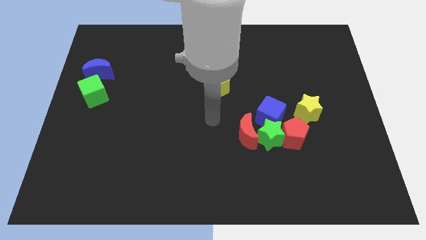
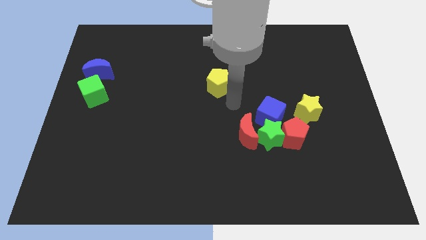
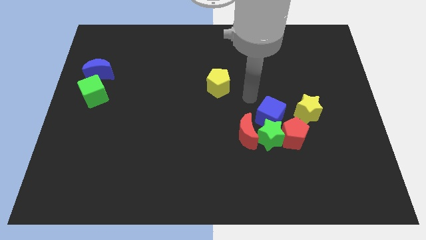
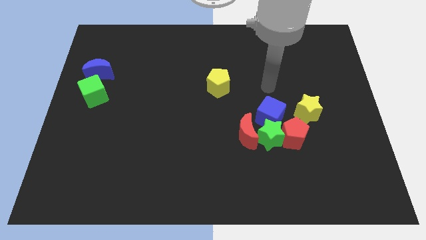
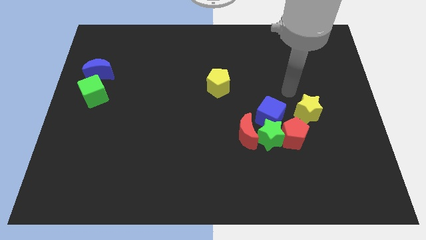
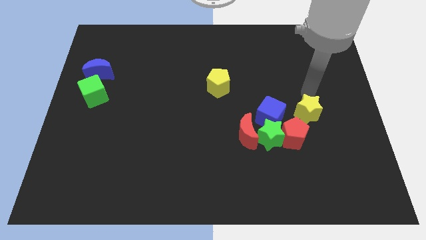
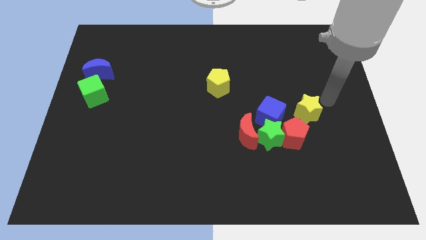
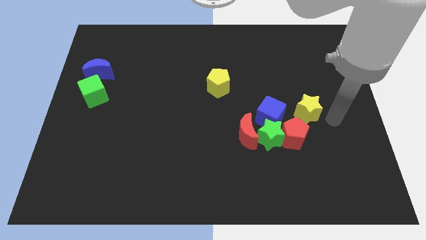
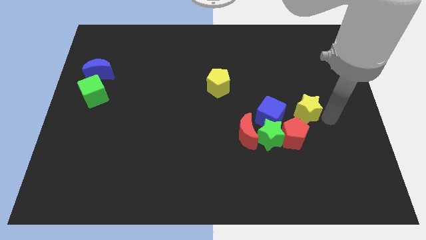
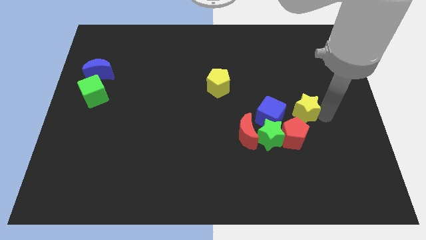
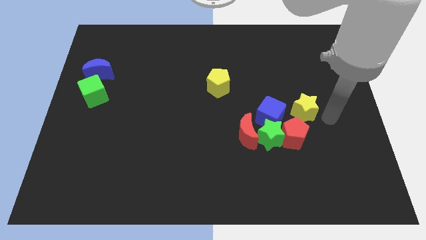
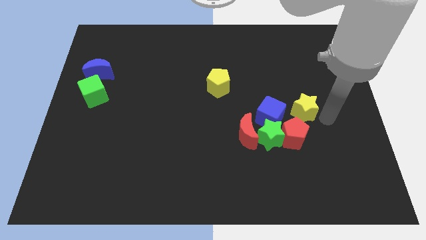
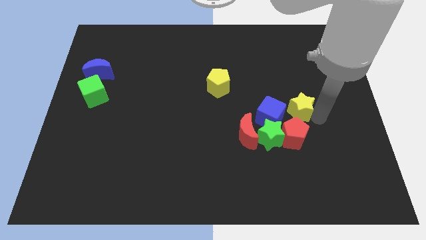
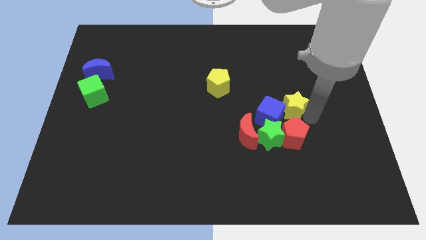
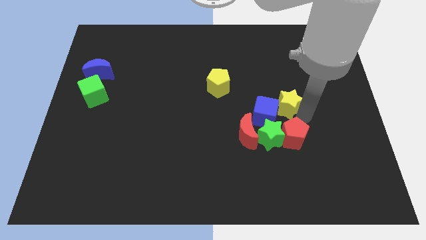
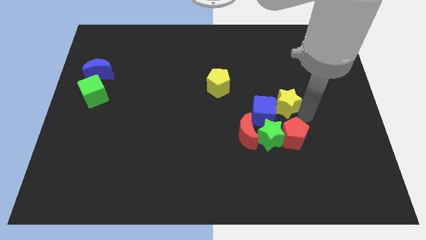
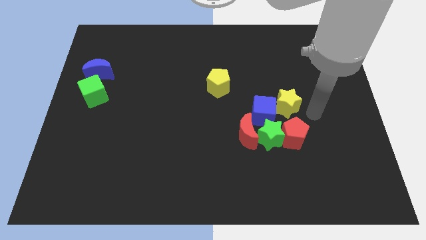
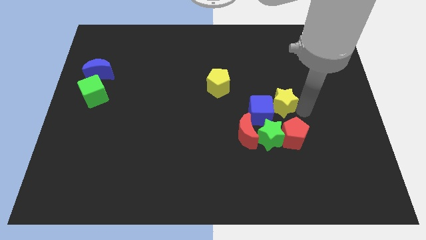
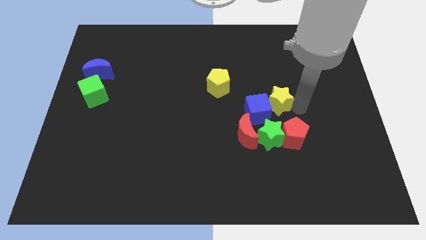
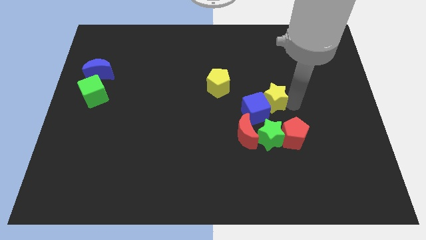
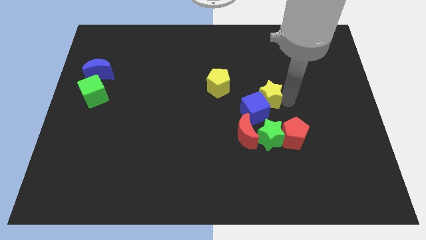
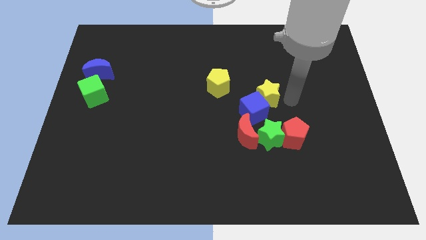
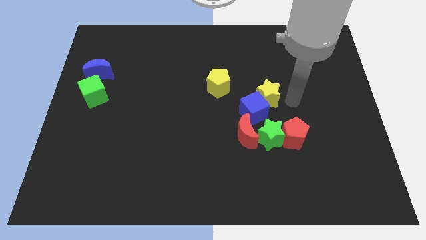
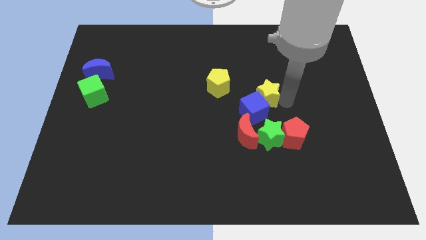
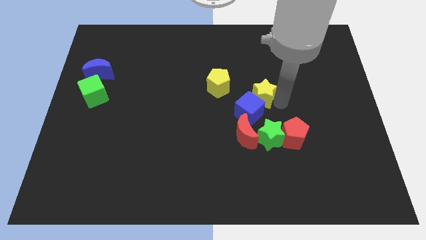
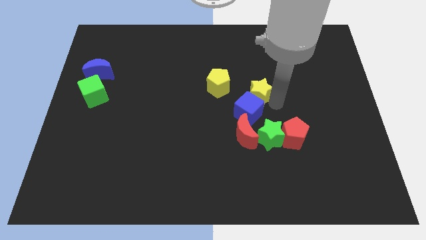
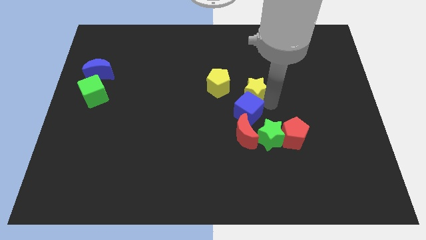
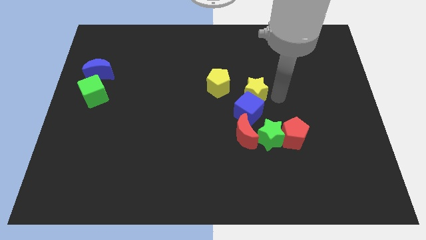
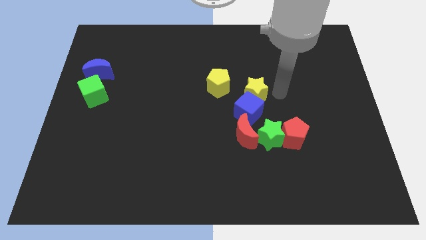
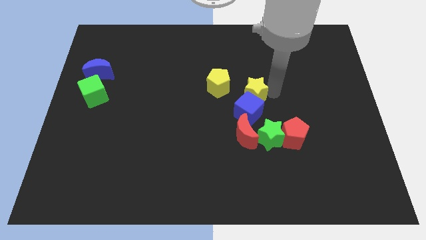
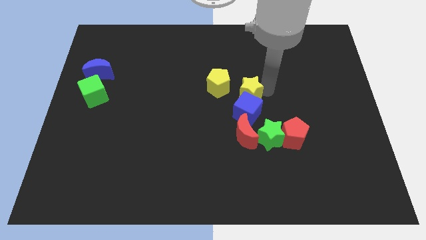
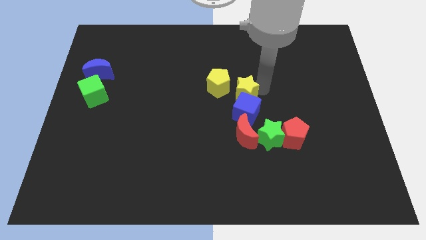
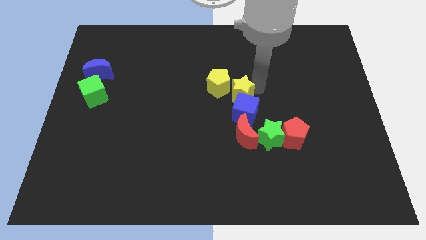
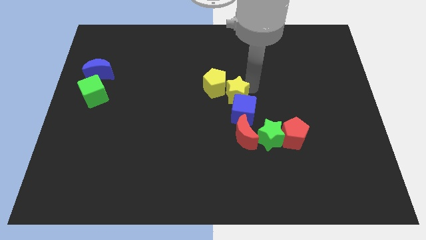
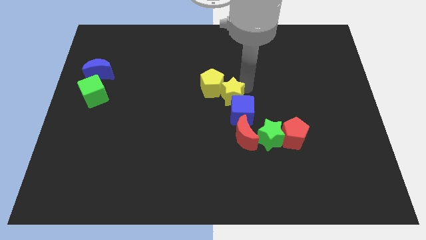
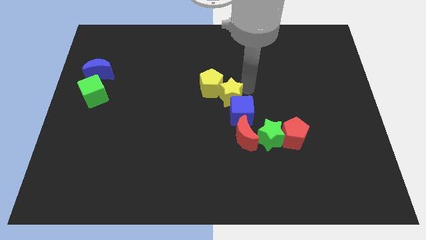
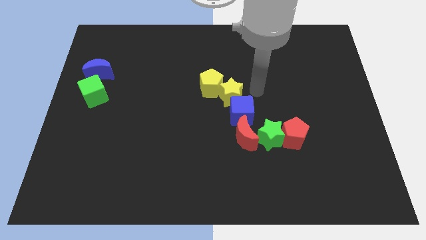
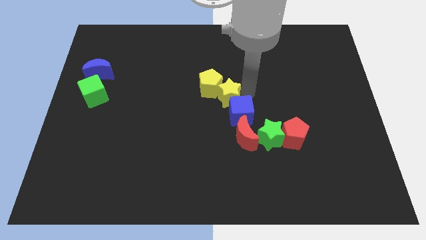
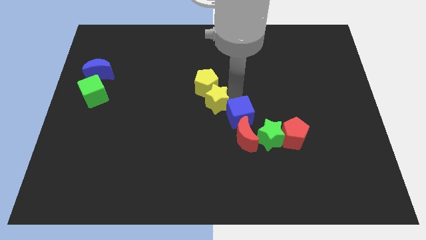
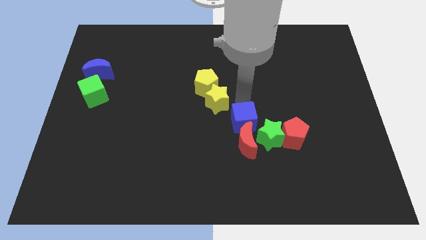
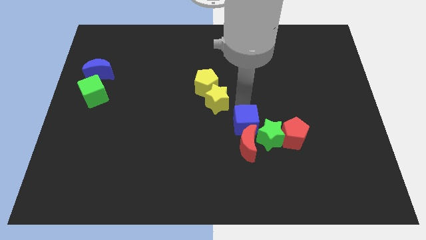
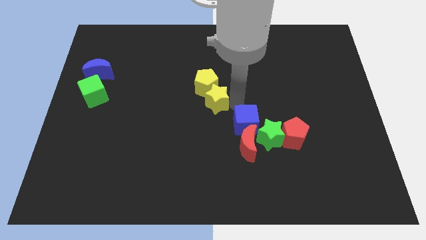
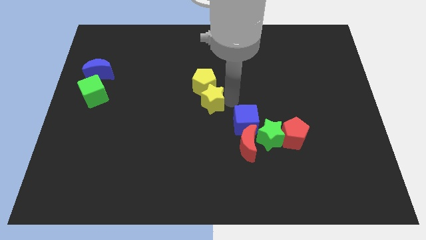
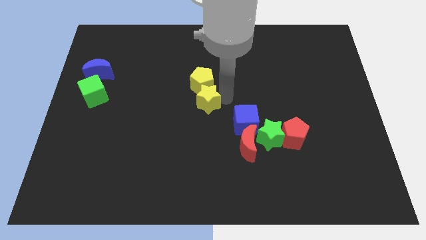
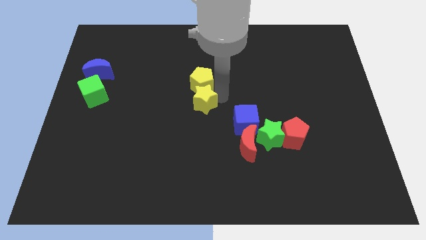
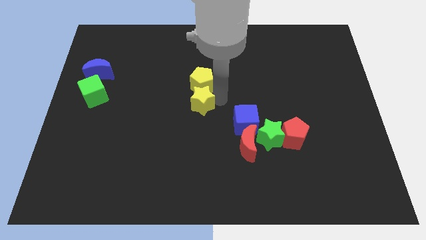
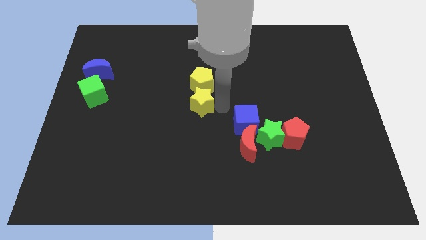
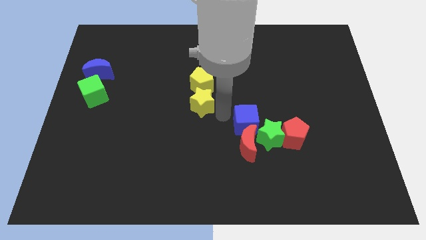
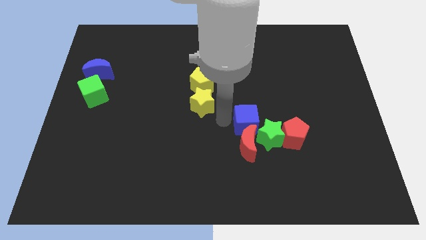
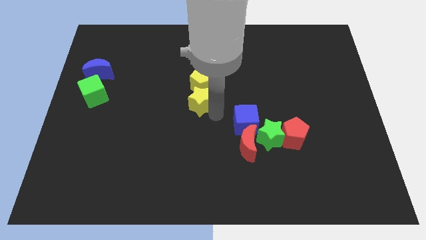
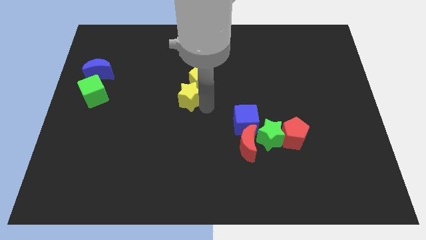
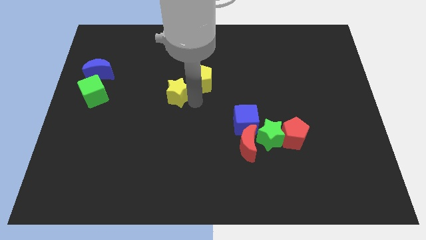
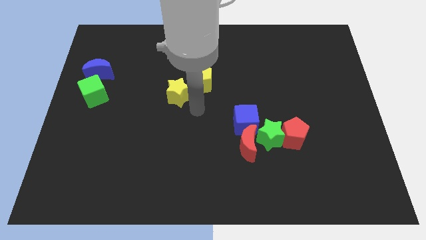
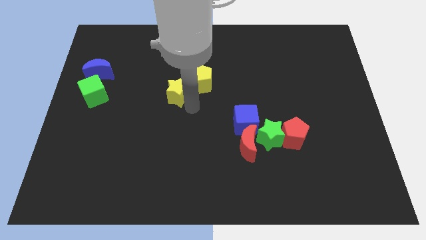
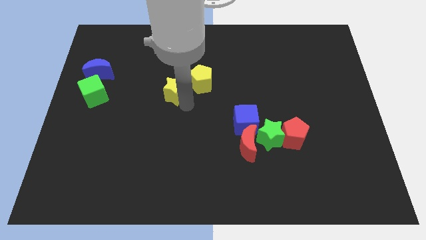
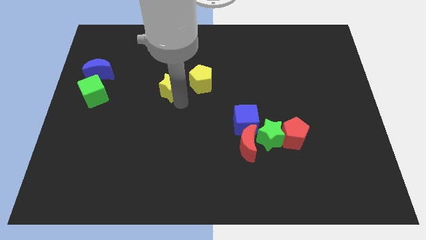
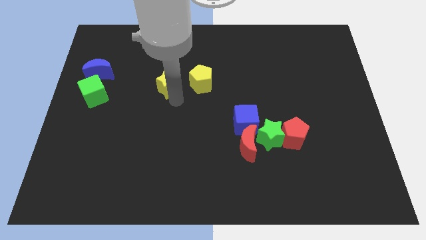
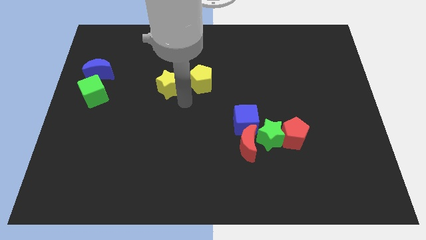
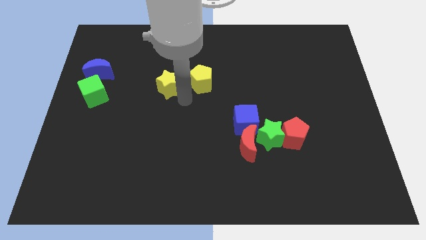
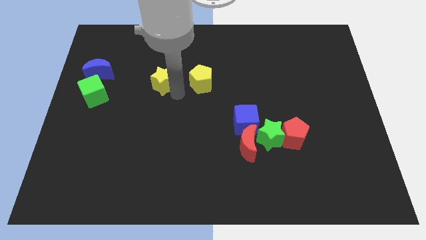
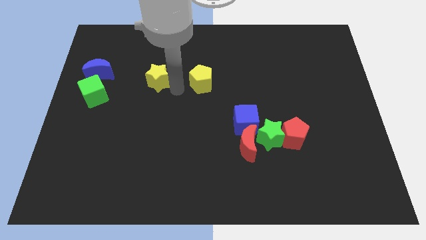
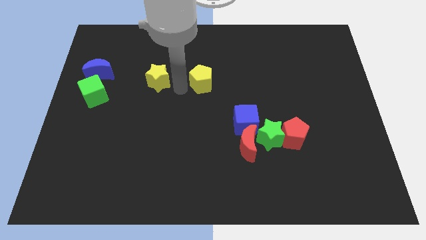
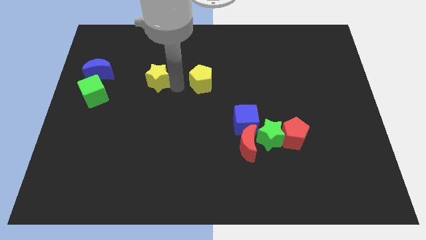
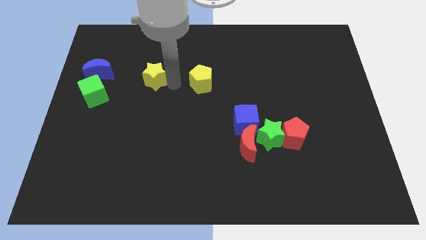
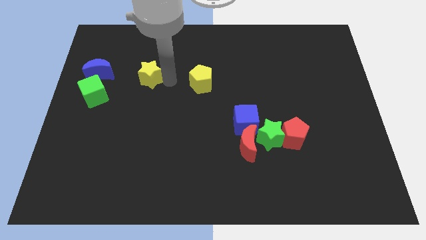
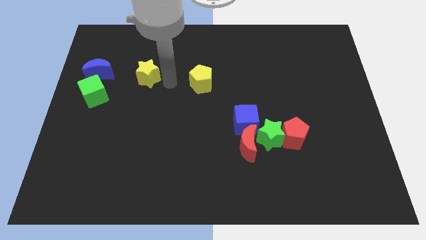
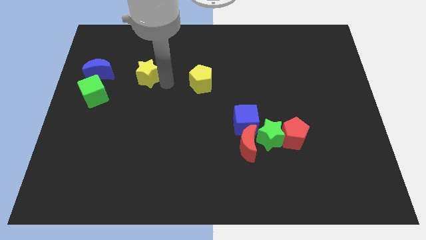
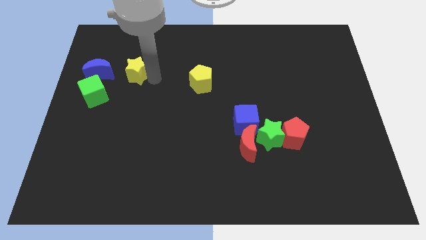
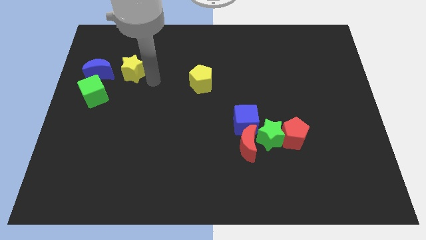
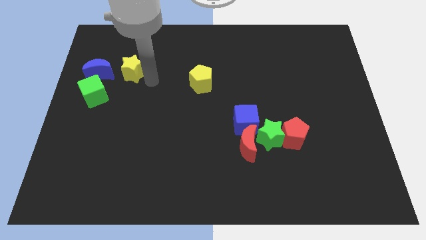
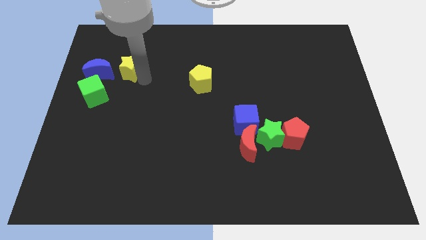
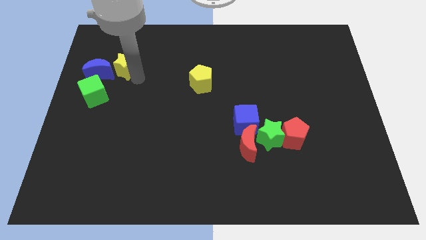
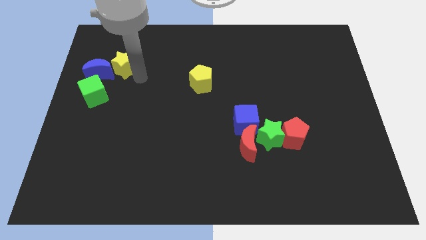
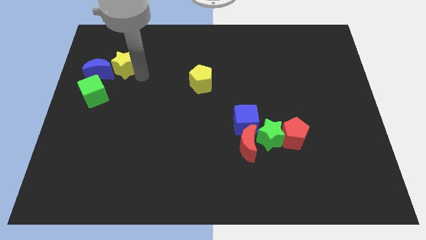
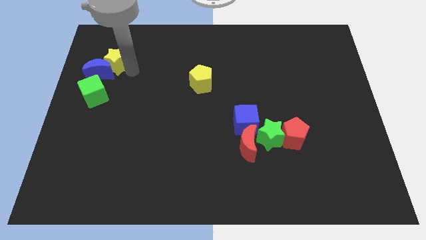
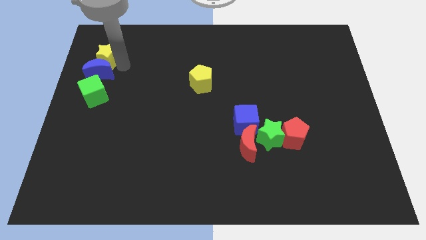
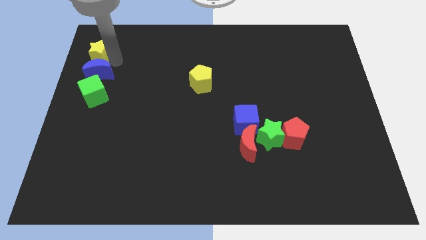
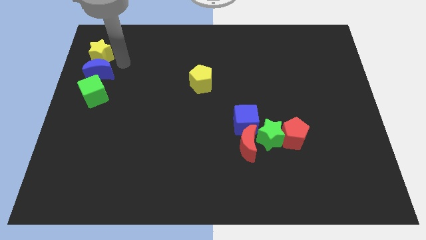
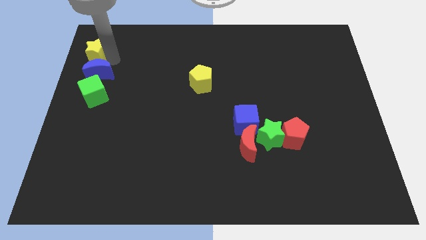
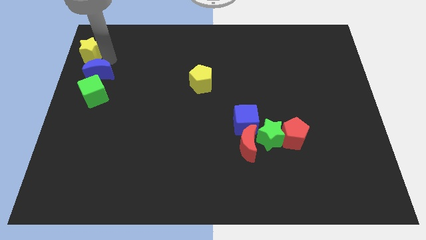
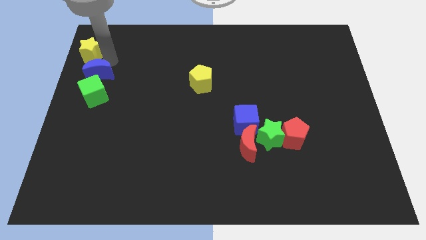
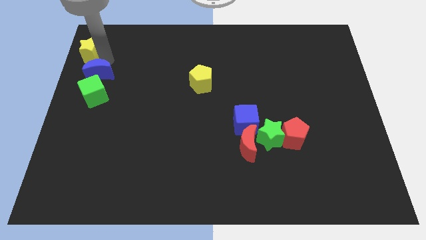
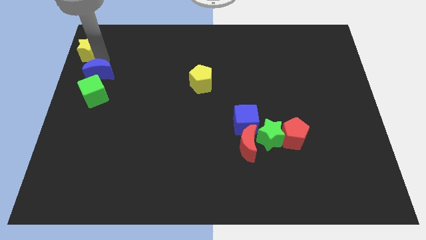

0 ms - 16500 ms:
put the yellow star to the top left corner
